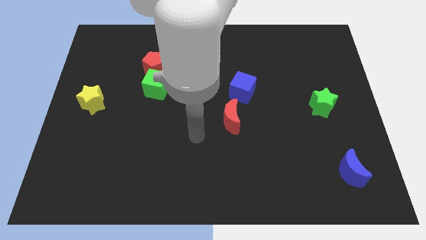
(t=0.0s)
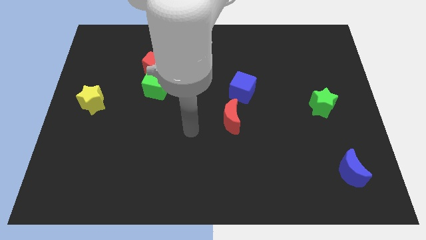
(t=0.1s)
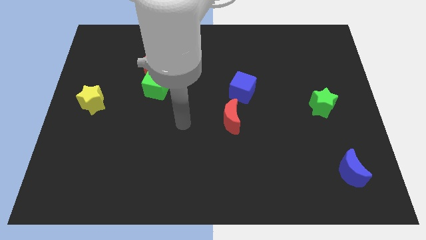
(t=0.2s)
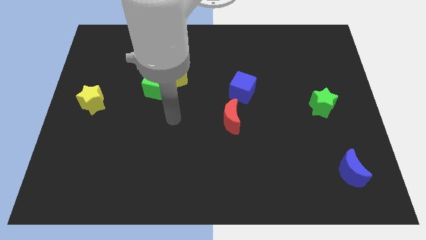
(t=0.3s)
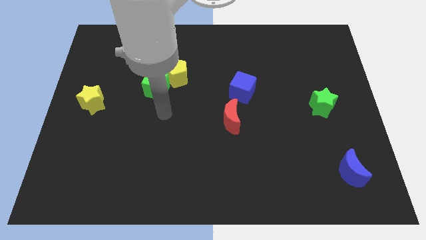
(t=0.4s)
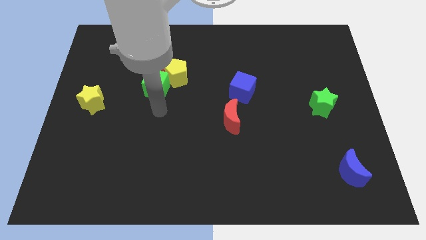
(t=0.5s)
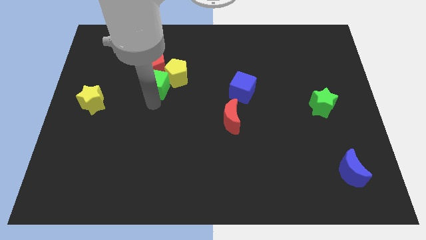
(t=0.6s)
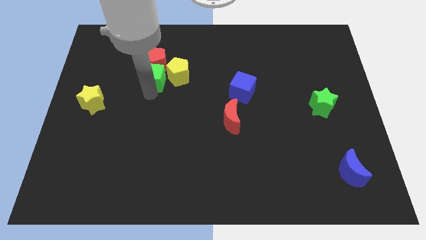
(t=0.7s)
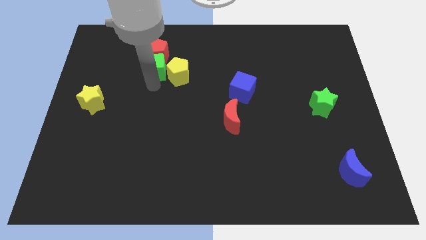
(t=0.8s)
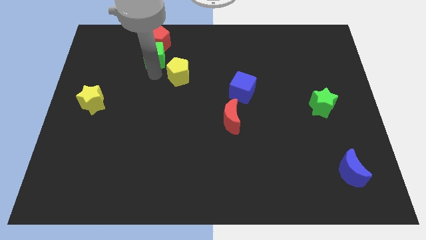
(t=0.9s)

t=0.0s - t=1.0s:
separate the yellow pentagon from the green cube and red pentagon

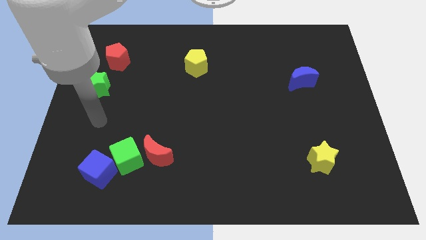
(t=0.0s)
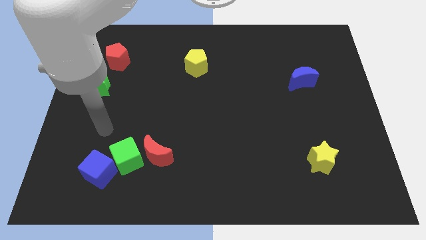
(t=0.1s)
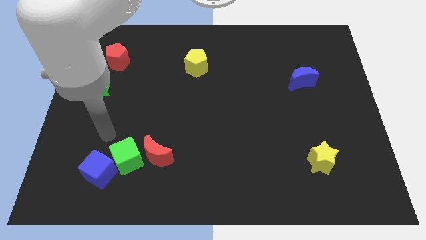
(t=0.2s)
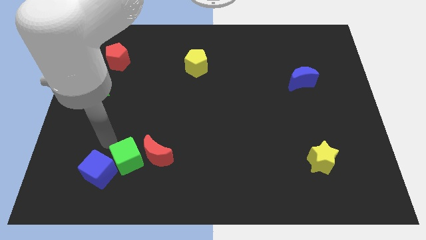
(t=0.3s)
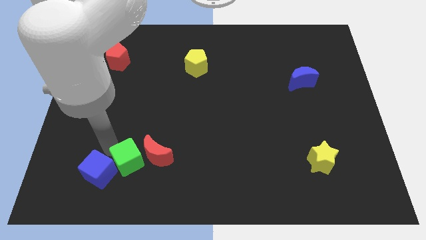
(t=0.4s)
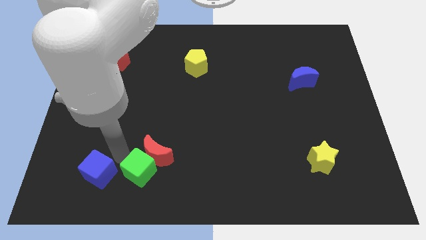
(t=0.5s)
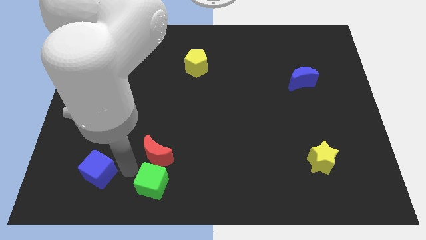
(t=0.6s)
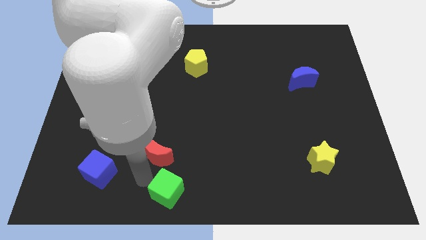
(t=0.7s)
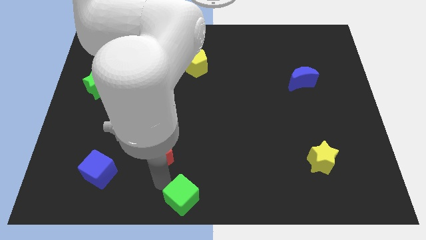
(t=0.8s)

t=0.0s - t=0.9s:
separate the red moon from the green cube

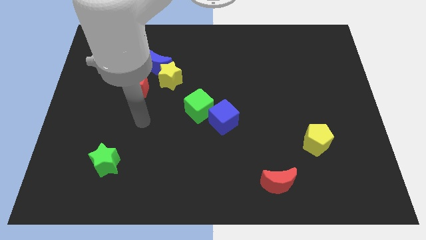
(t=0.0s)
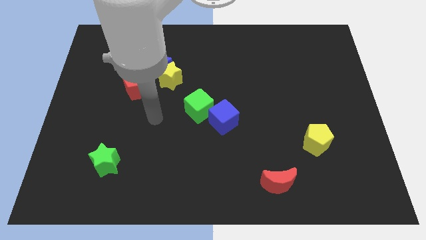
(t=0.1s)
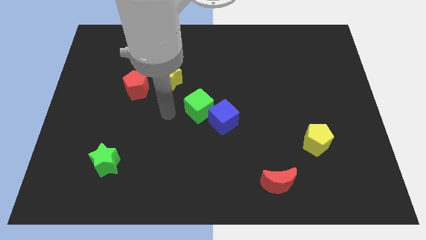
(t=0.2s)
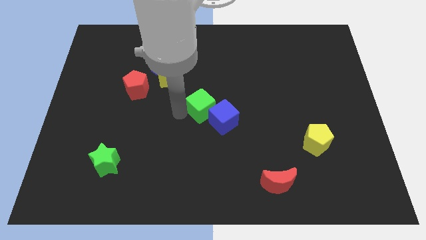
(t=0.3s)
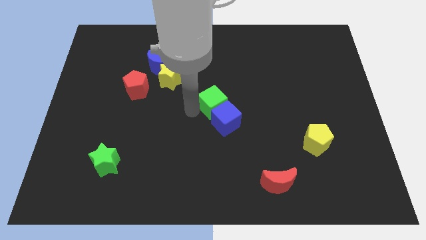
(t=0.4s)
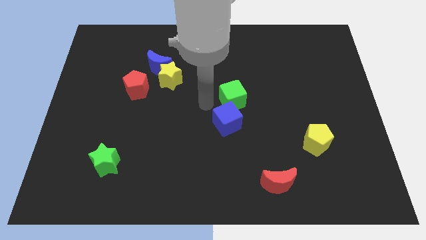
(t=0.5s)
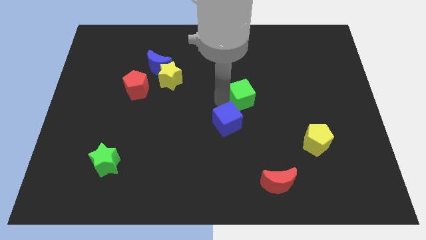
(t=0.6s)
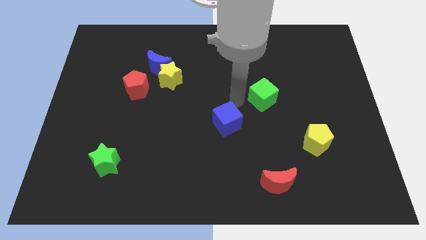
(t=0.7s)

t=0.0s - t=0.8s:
separate the blue cube from the green cube

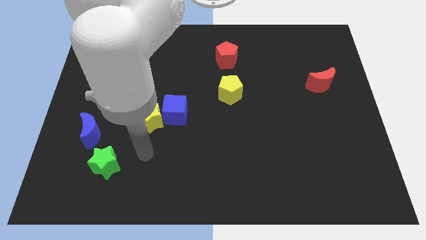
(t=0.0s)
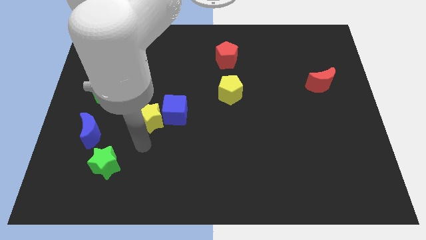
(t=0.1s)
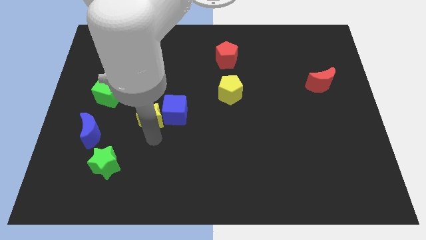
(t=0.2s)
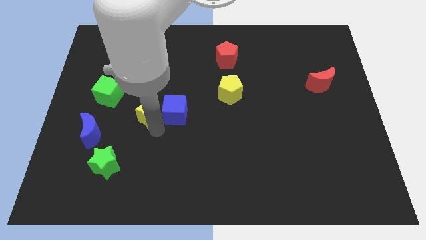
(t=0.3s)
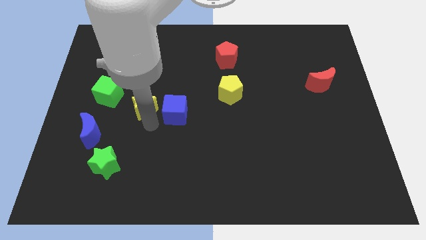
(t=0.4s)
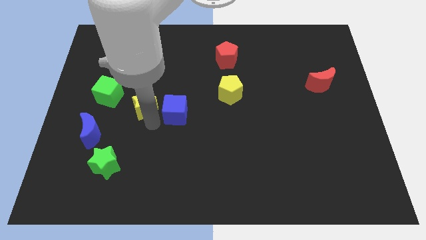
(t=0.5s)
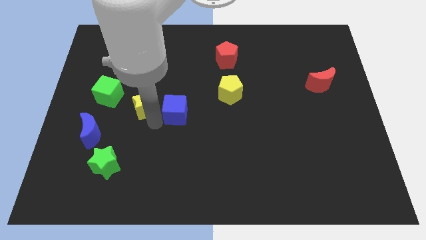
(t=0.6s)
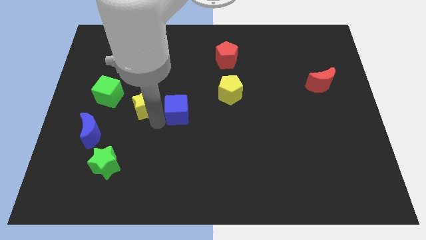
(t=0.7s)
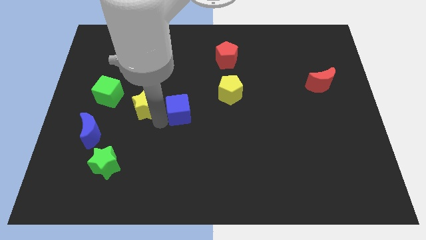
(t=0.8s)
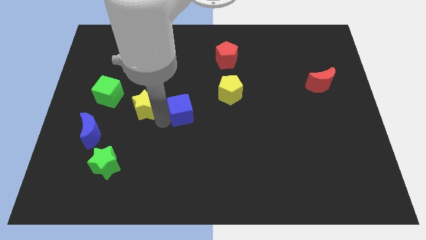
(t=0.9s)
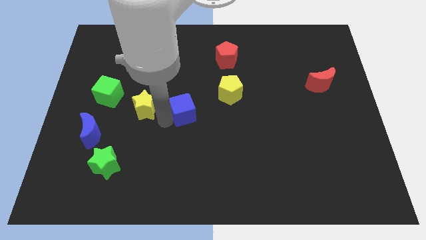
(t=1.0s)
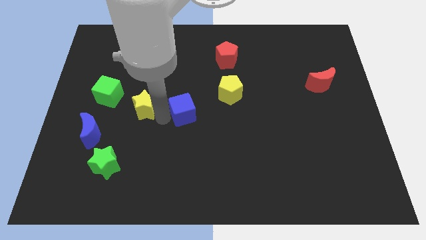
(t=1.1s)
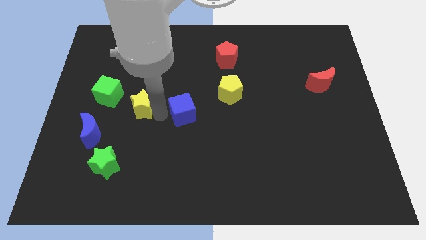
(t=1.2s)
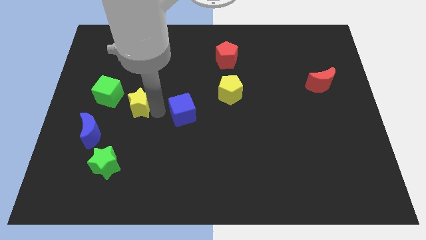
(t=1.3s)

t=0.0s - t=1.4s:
move the blue cube away from the yellow star

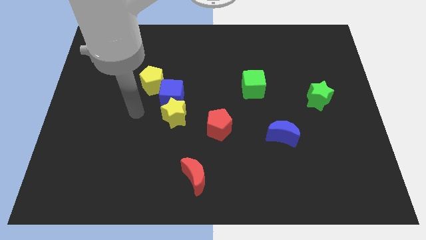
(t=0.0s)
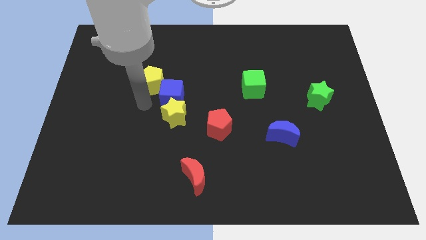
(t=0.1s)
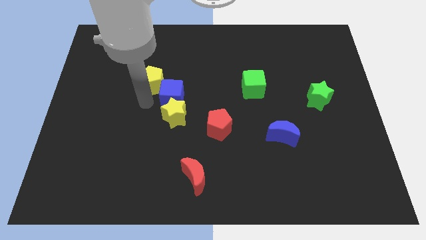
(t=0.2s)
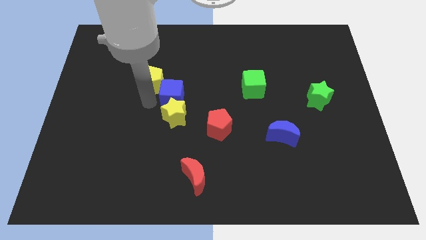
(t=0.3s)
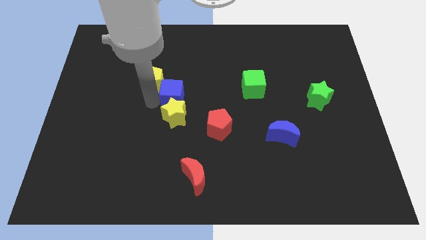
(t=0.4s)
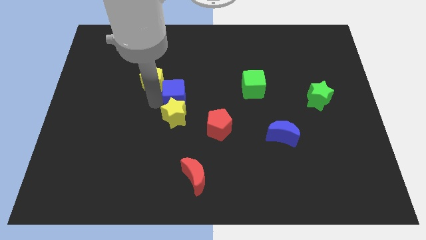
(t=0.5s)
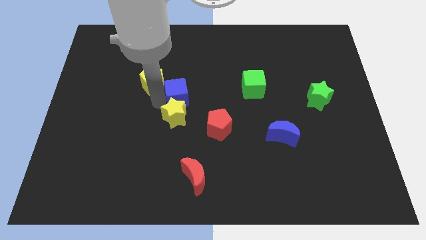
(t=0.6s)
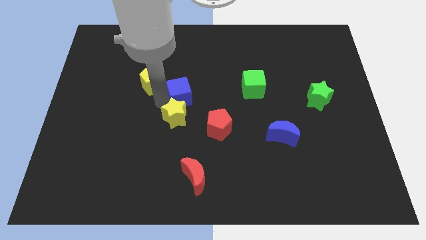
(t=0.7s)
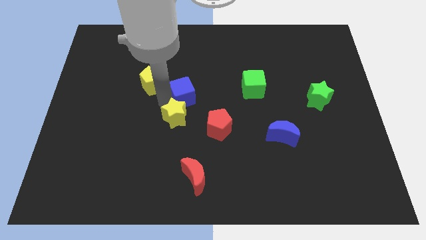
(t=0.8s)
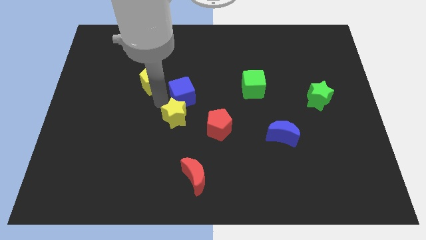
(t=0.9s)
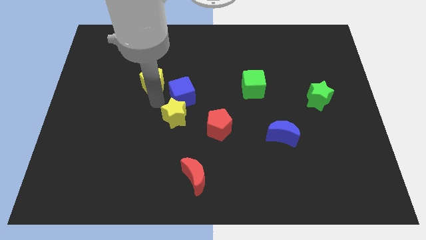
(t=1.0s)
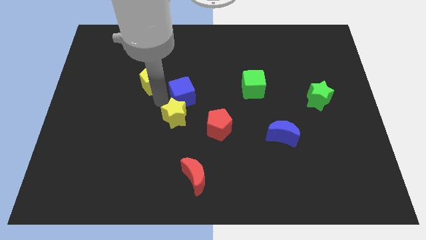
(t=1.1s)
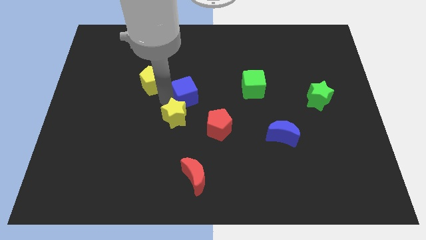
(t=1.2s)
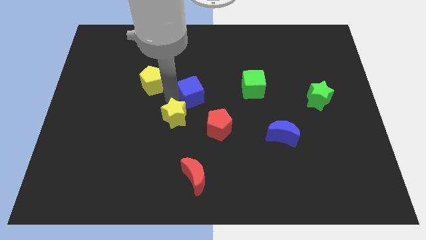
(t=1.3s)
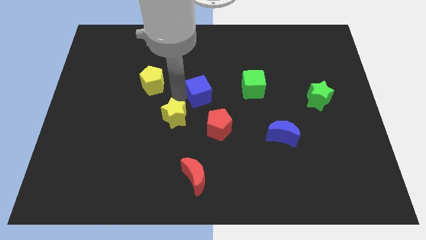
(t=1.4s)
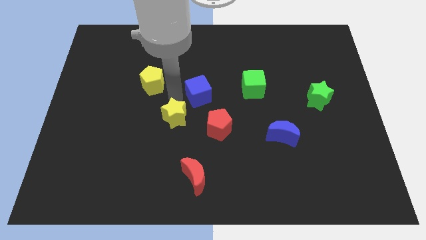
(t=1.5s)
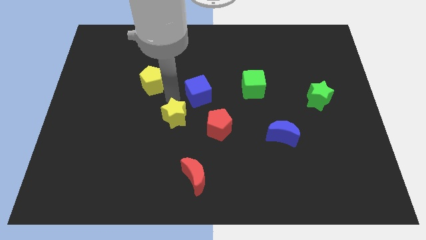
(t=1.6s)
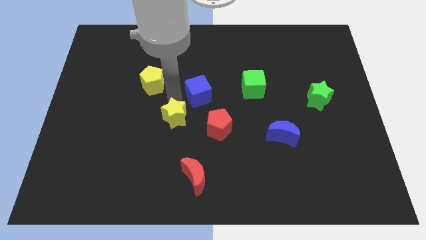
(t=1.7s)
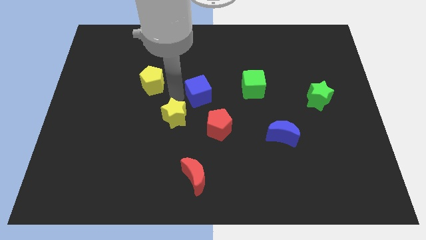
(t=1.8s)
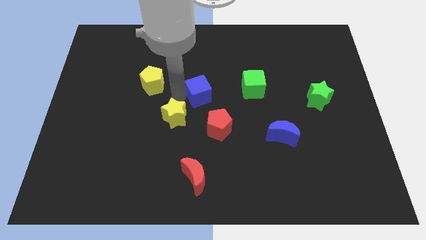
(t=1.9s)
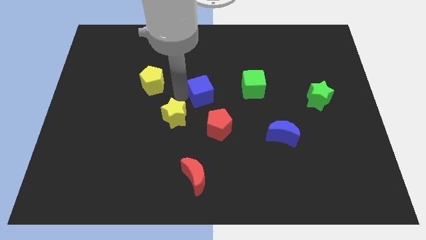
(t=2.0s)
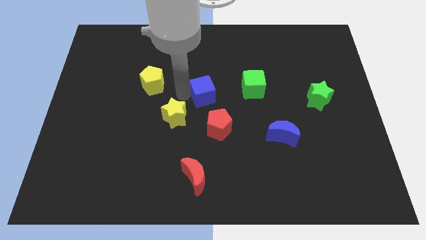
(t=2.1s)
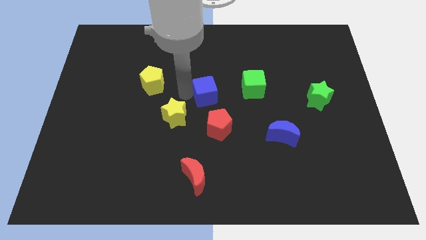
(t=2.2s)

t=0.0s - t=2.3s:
move the blue cube away from the yellow star and yellow pentagon

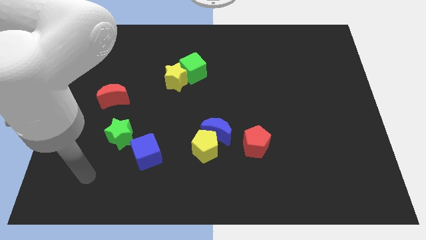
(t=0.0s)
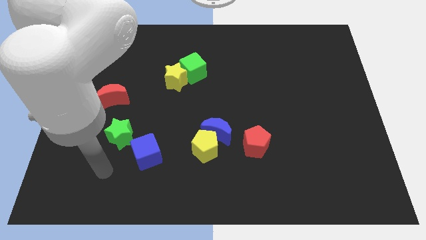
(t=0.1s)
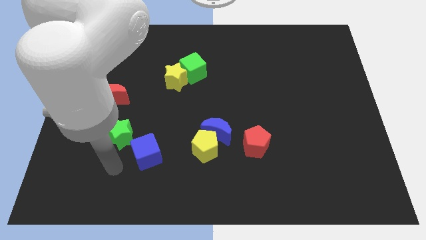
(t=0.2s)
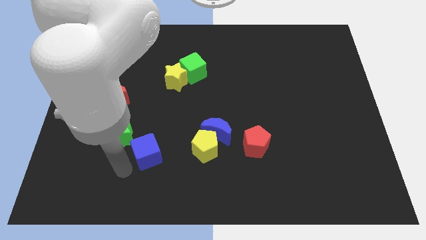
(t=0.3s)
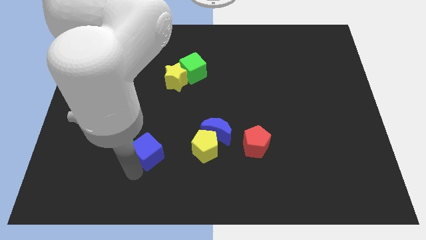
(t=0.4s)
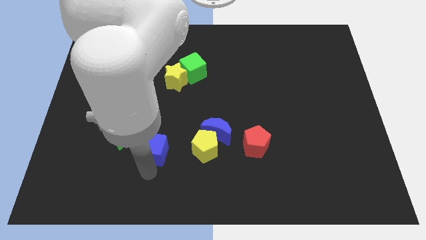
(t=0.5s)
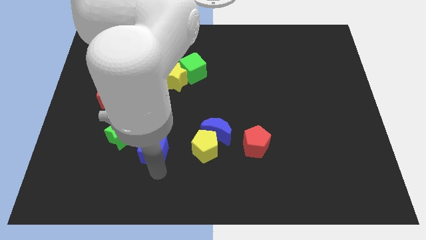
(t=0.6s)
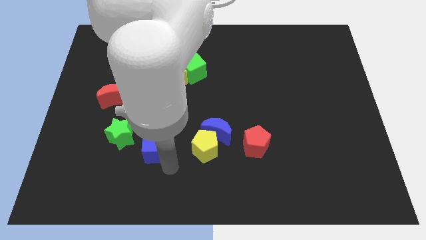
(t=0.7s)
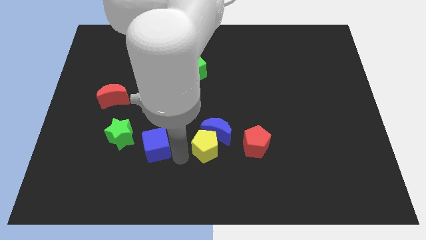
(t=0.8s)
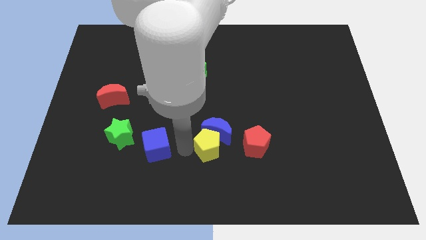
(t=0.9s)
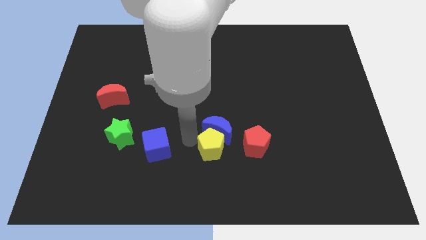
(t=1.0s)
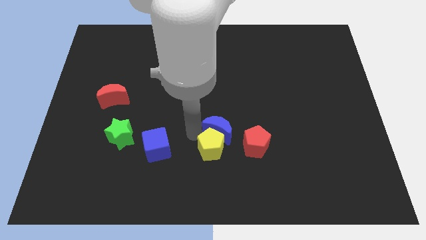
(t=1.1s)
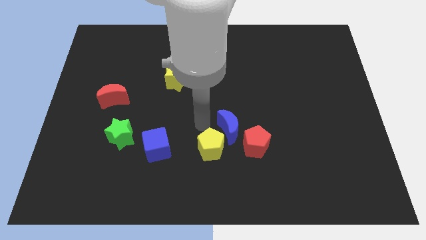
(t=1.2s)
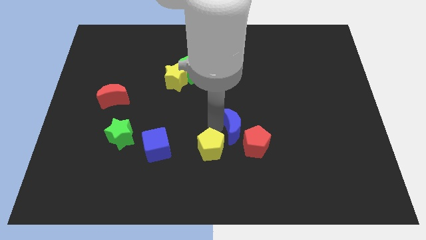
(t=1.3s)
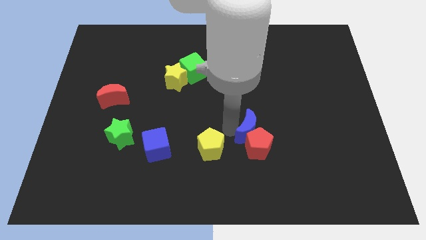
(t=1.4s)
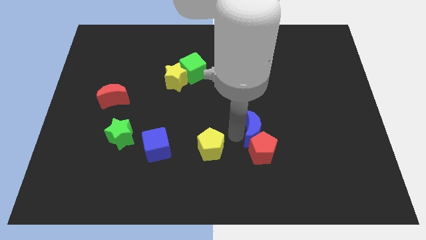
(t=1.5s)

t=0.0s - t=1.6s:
move the yellow pentagon away from the blue moon

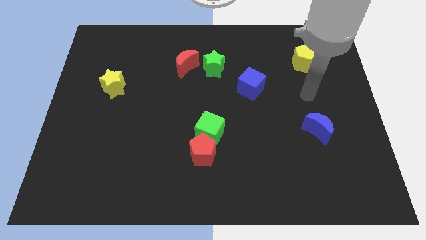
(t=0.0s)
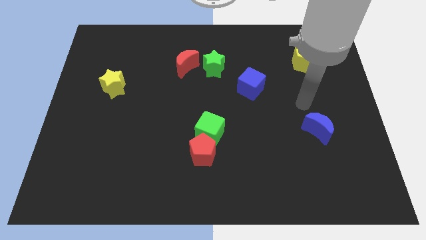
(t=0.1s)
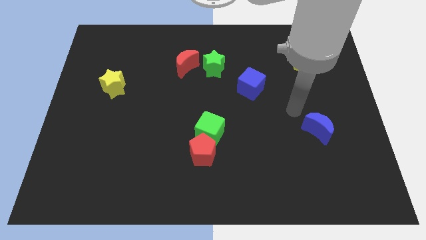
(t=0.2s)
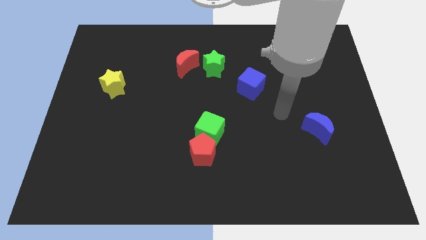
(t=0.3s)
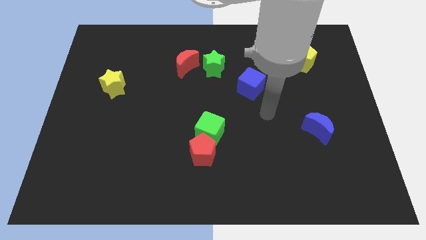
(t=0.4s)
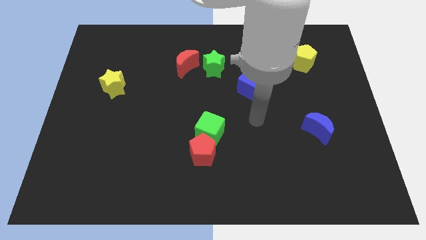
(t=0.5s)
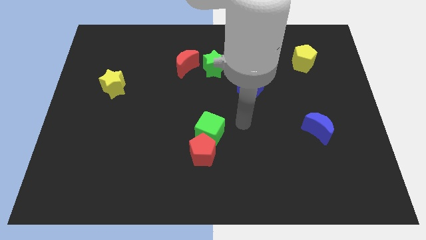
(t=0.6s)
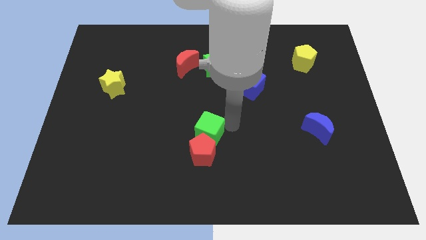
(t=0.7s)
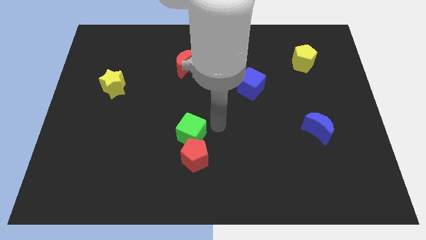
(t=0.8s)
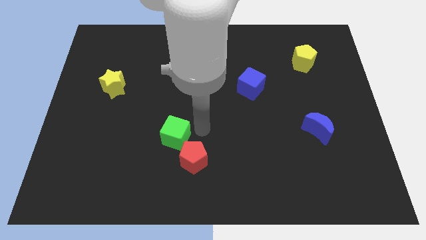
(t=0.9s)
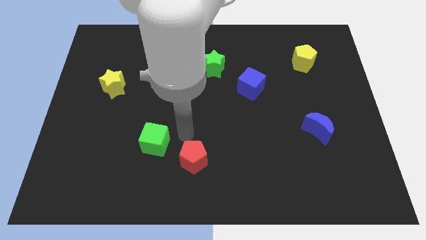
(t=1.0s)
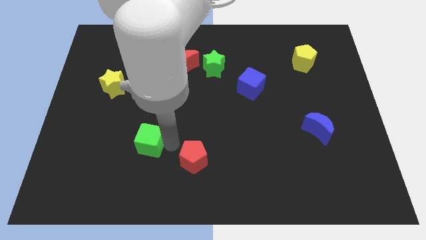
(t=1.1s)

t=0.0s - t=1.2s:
pull the red pentagon apart from the green cube
